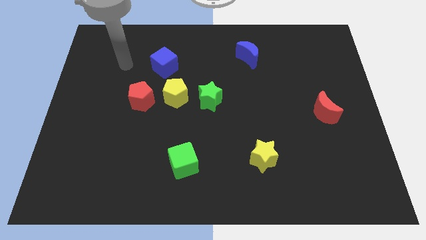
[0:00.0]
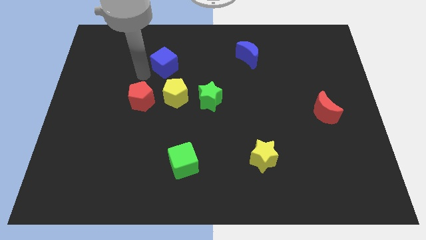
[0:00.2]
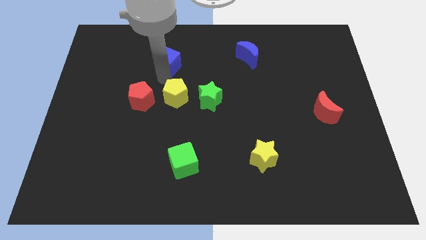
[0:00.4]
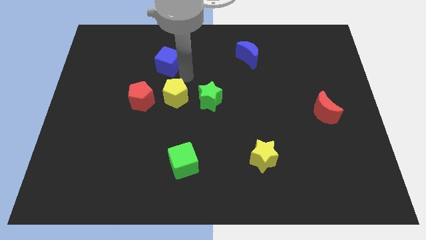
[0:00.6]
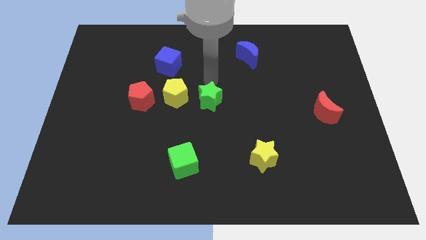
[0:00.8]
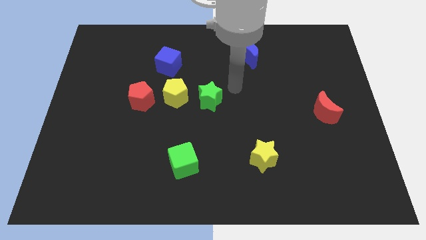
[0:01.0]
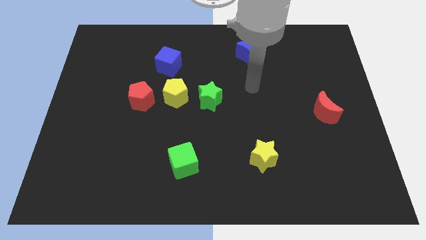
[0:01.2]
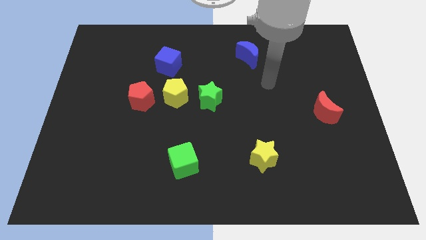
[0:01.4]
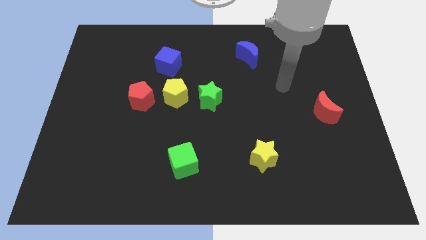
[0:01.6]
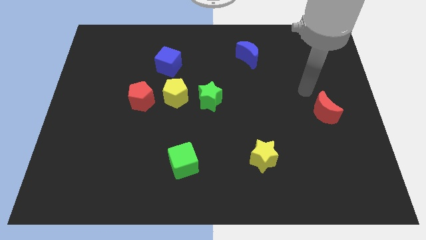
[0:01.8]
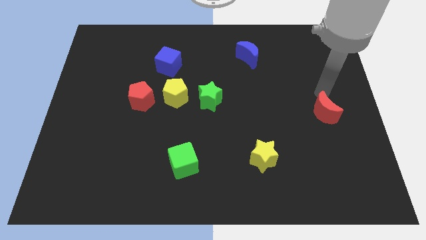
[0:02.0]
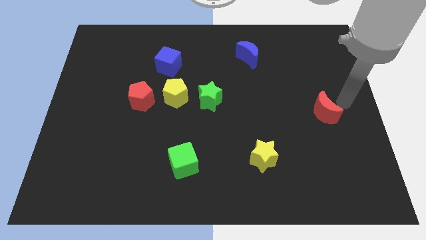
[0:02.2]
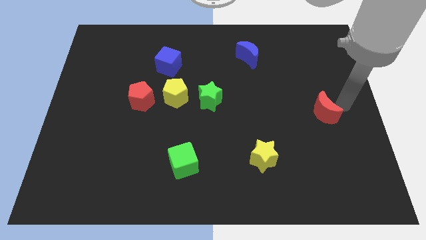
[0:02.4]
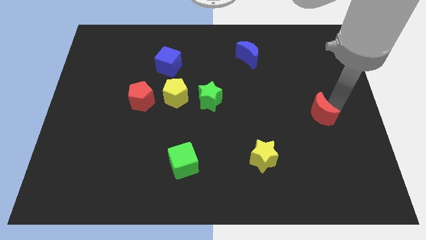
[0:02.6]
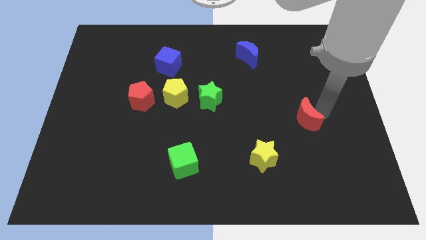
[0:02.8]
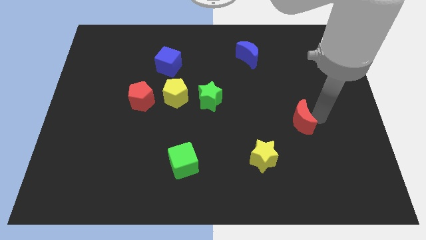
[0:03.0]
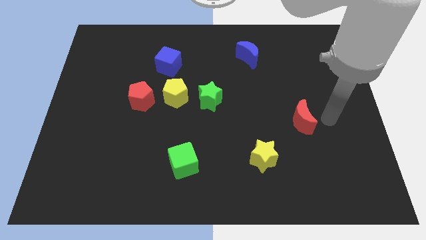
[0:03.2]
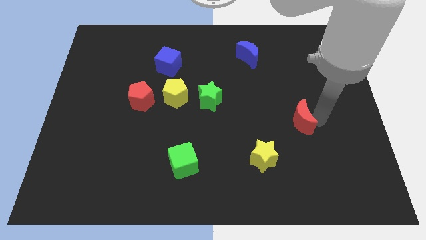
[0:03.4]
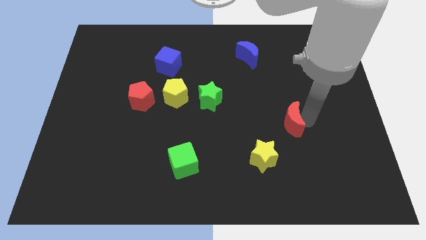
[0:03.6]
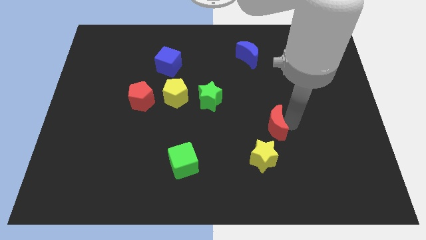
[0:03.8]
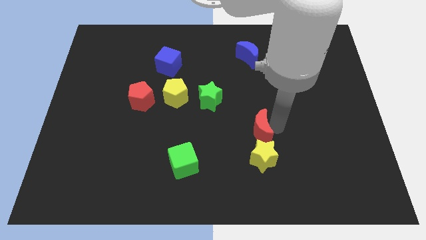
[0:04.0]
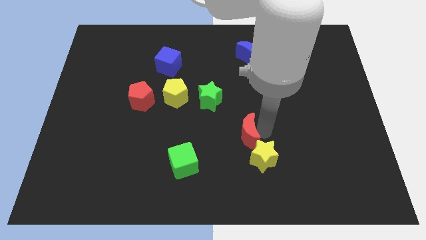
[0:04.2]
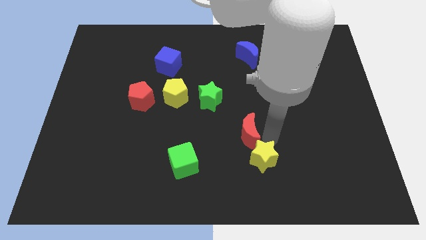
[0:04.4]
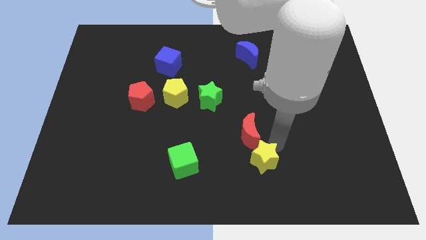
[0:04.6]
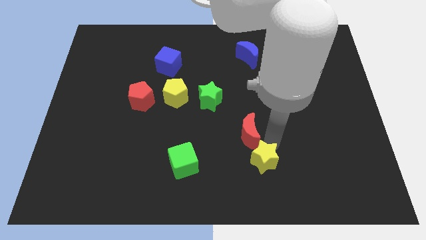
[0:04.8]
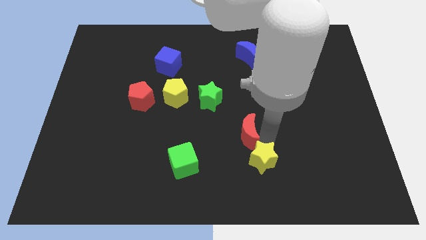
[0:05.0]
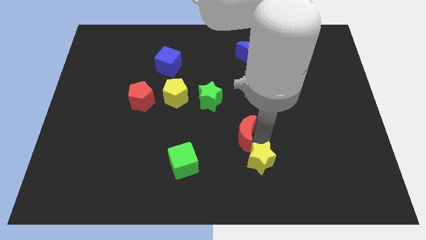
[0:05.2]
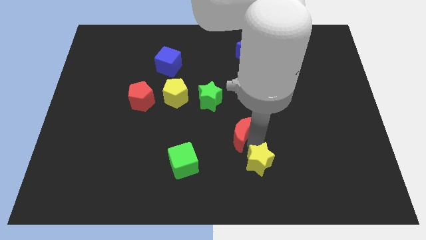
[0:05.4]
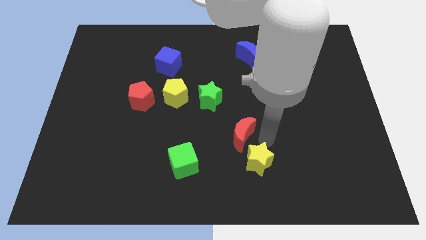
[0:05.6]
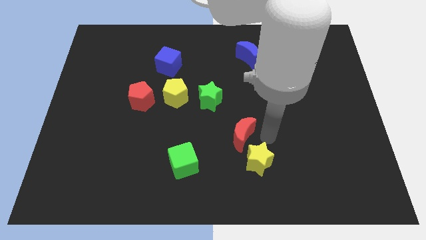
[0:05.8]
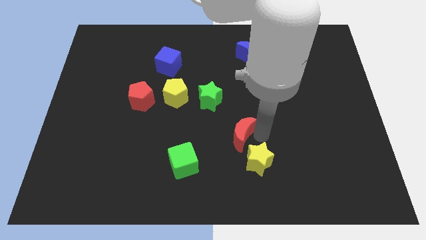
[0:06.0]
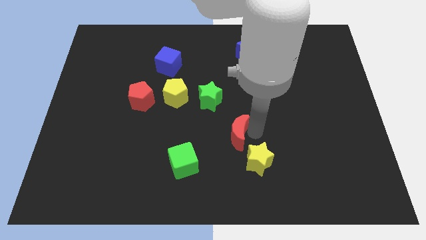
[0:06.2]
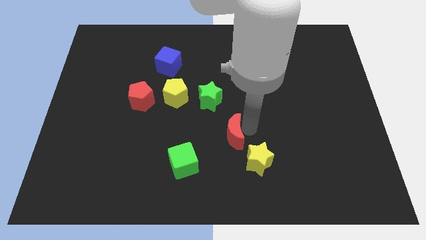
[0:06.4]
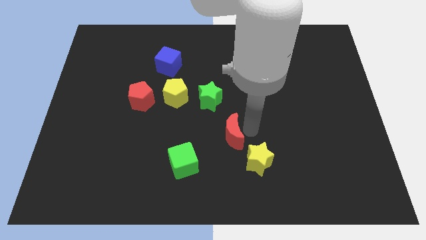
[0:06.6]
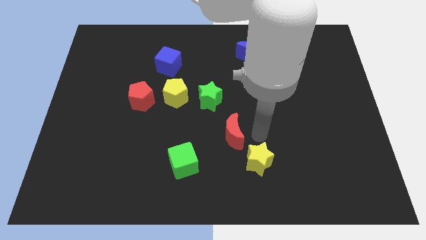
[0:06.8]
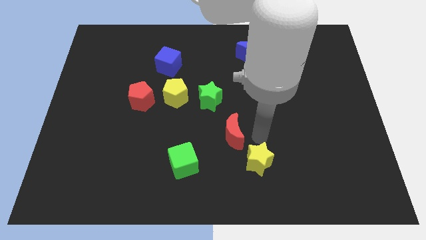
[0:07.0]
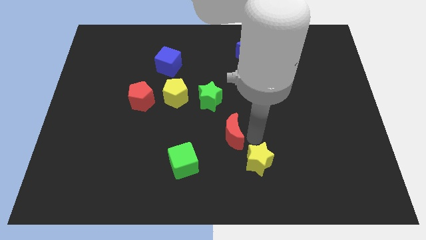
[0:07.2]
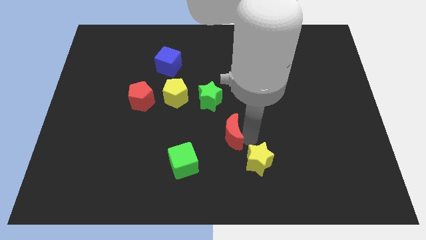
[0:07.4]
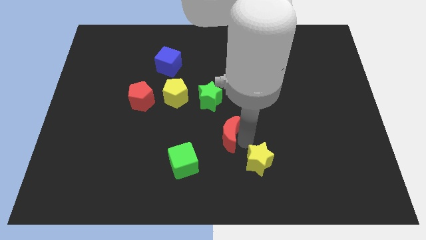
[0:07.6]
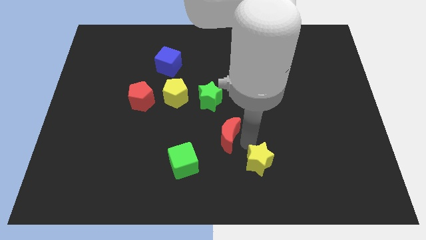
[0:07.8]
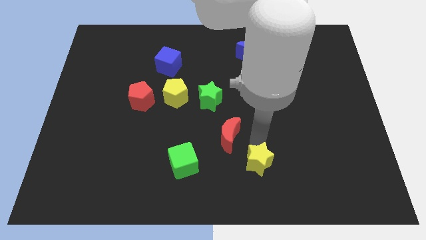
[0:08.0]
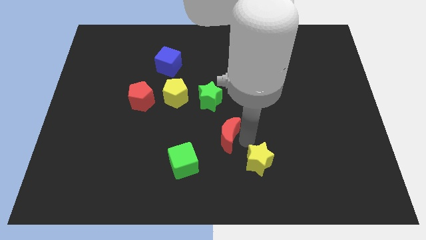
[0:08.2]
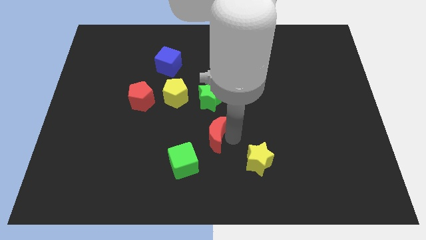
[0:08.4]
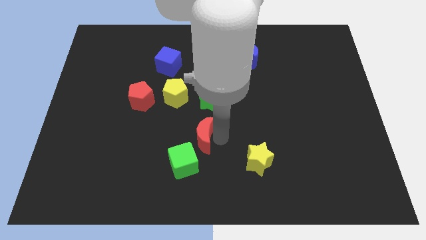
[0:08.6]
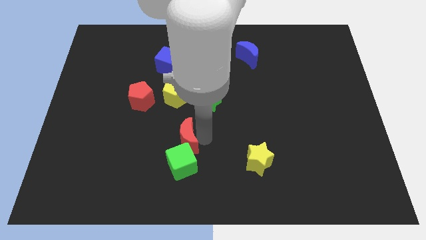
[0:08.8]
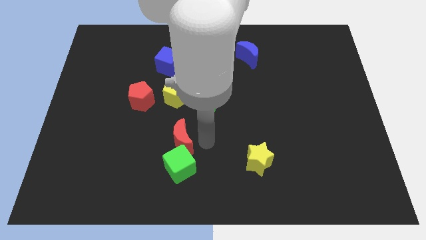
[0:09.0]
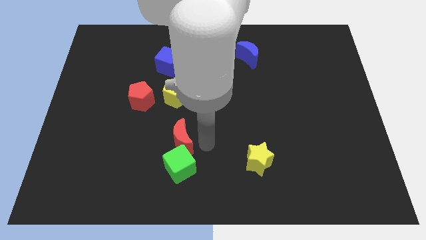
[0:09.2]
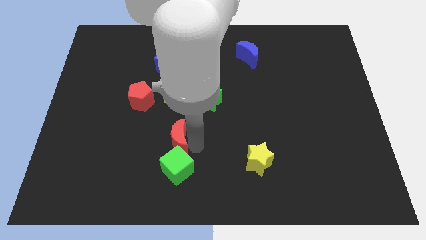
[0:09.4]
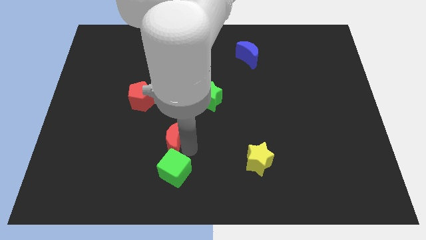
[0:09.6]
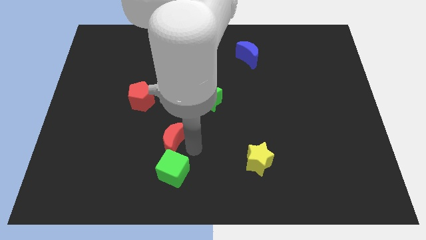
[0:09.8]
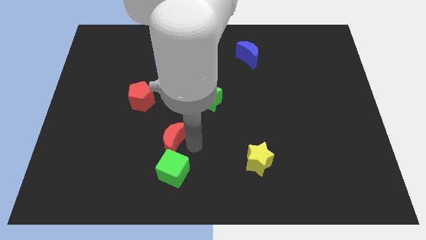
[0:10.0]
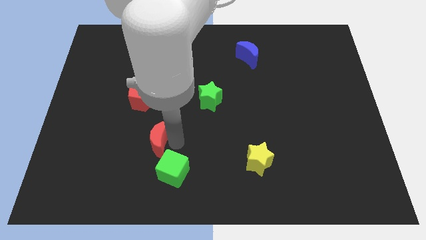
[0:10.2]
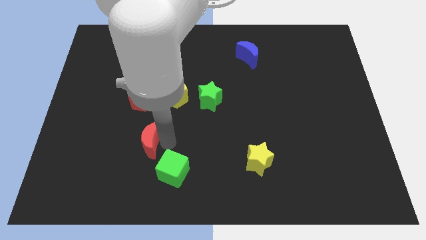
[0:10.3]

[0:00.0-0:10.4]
push the red moon below the red pentagon
